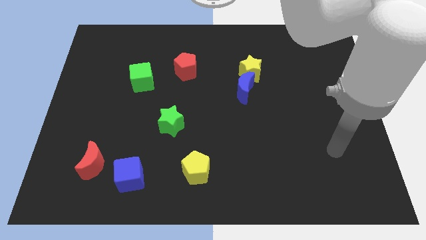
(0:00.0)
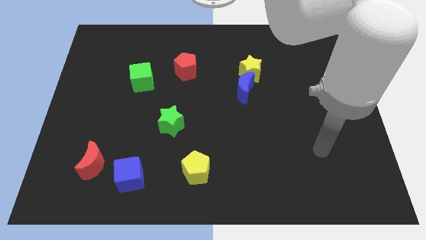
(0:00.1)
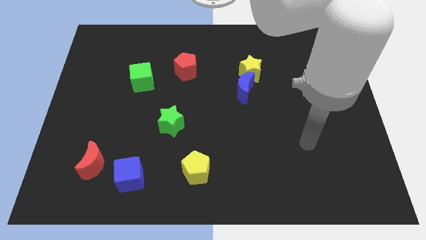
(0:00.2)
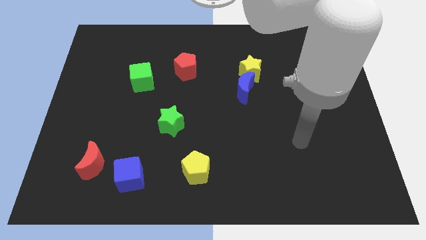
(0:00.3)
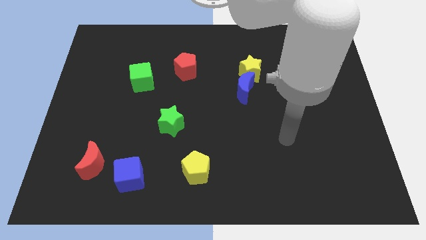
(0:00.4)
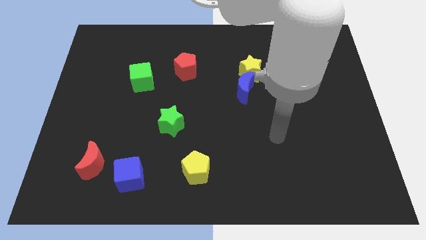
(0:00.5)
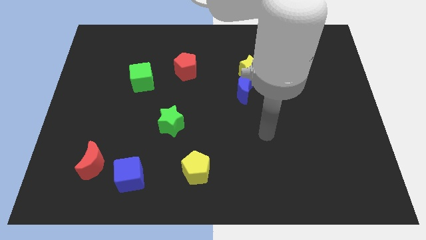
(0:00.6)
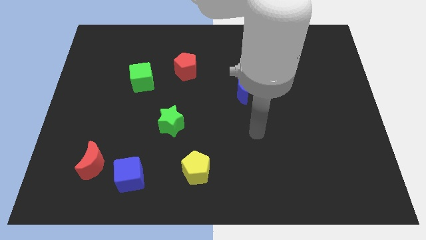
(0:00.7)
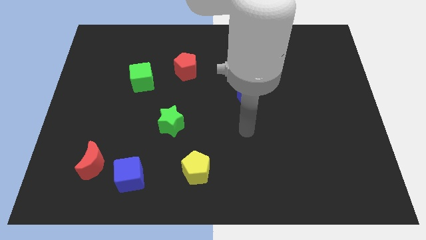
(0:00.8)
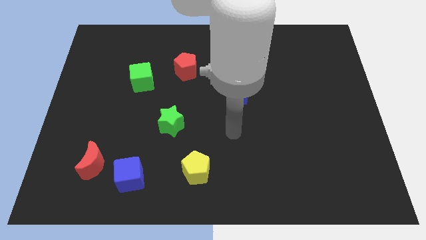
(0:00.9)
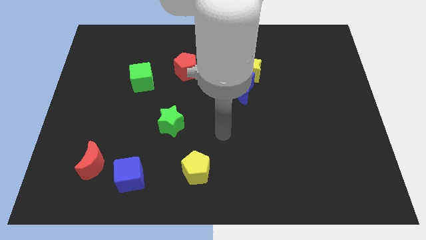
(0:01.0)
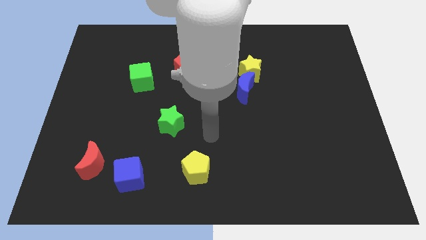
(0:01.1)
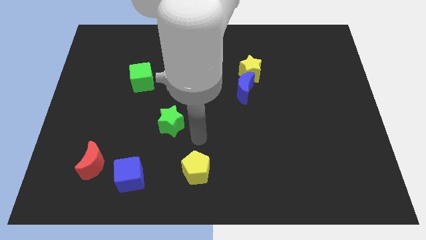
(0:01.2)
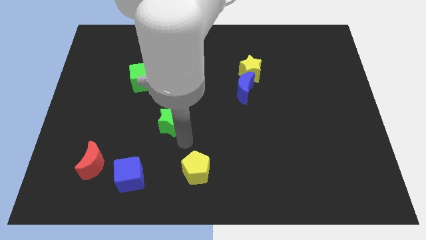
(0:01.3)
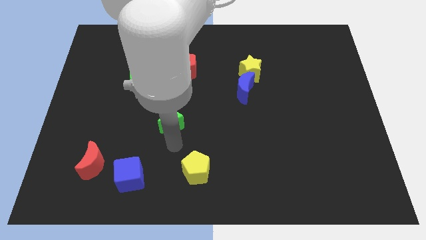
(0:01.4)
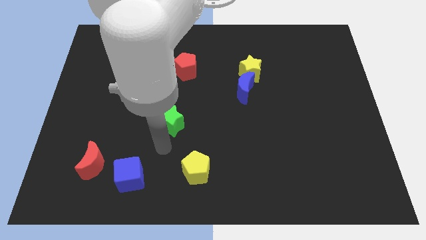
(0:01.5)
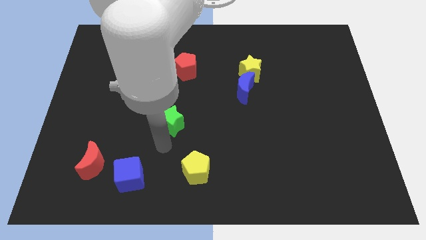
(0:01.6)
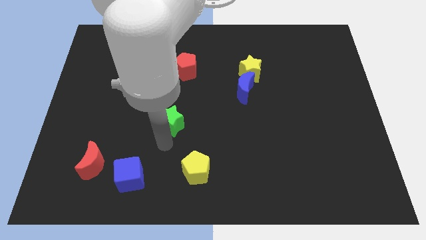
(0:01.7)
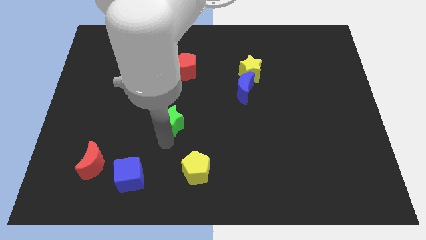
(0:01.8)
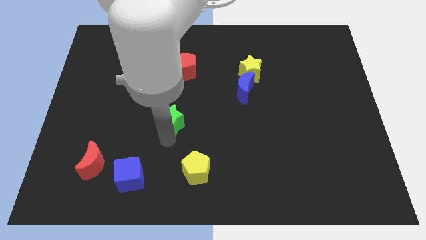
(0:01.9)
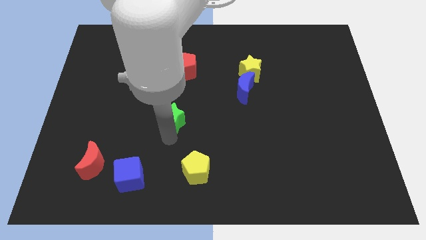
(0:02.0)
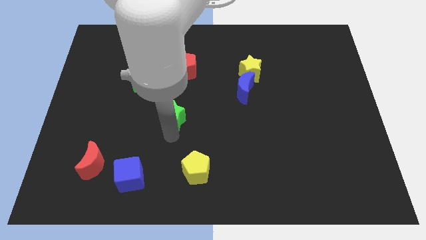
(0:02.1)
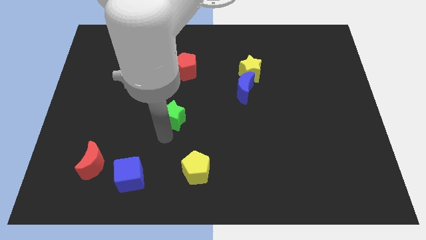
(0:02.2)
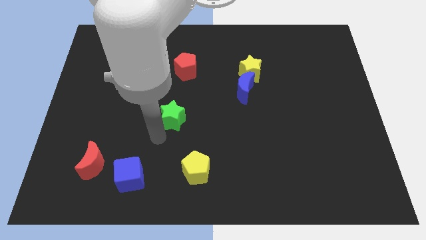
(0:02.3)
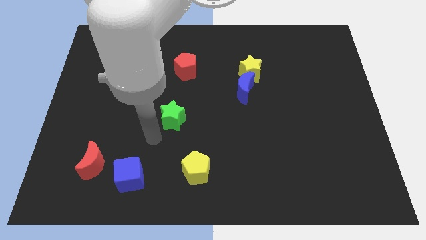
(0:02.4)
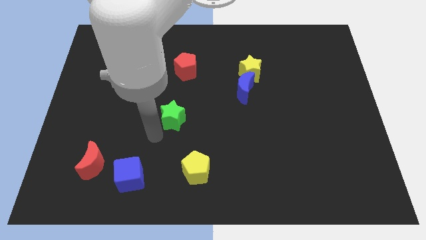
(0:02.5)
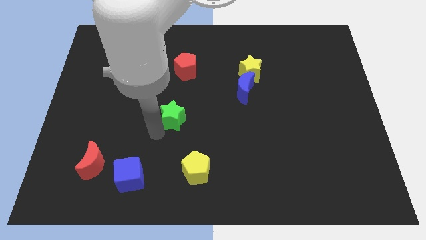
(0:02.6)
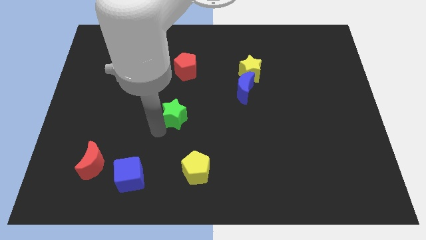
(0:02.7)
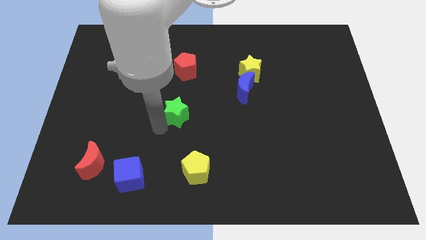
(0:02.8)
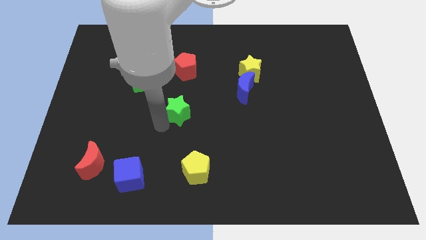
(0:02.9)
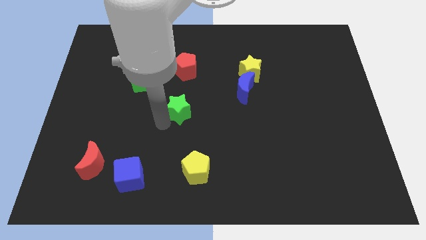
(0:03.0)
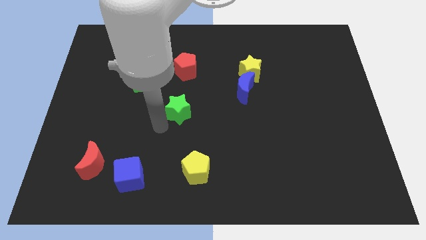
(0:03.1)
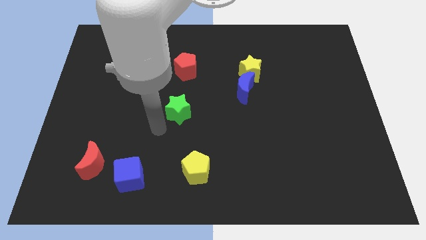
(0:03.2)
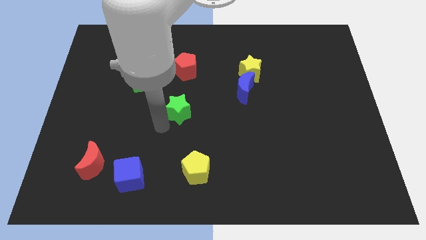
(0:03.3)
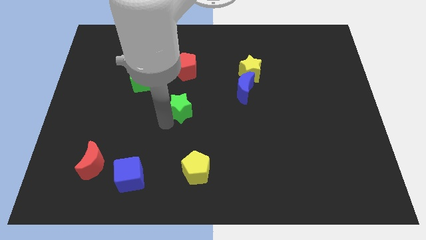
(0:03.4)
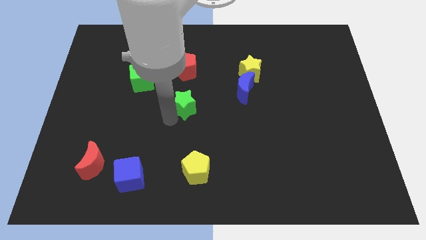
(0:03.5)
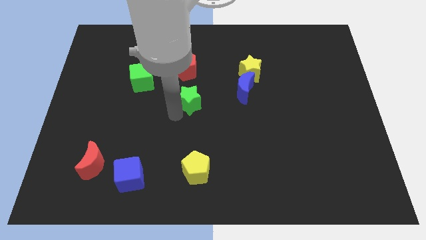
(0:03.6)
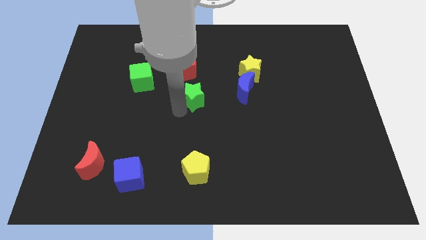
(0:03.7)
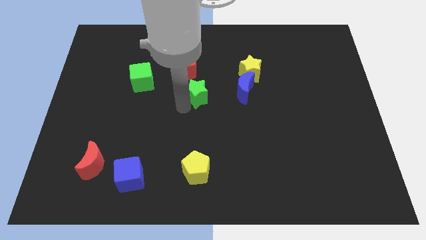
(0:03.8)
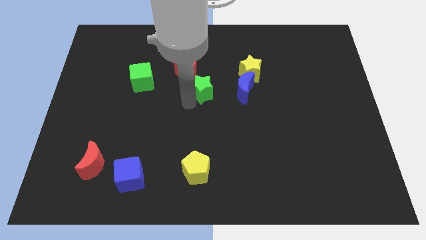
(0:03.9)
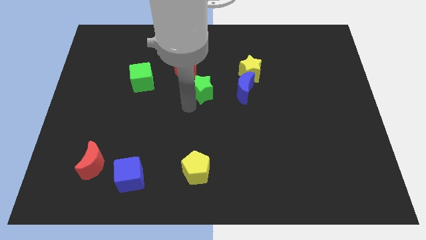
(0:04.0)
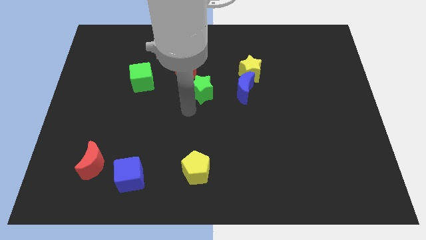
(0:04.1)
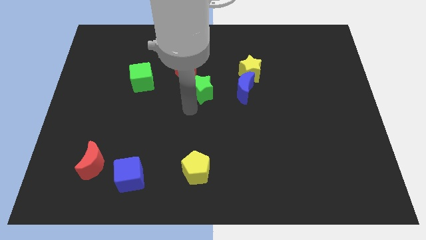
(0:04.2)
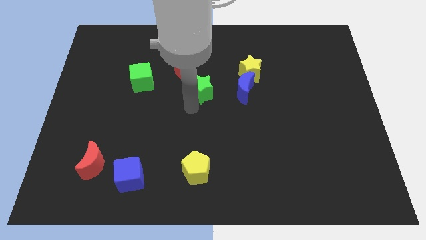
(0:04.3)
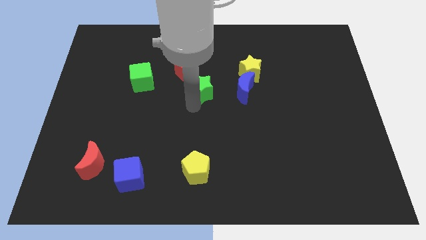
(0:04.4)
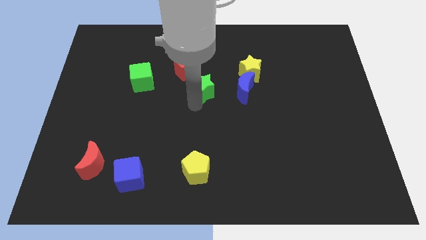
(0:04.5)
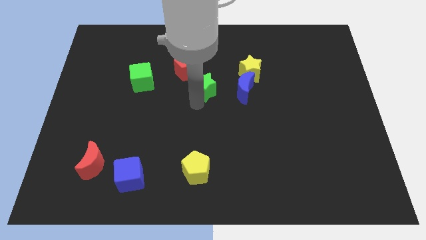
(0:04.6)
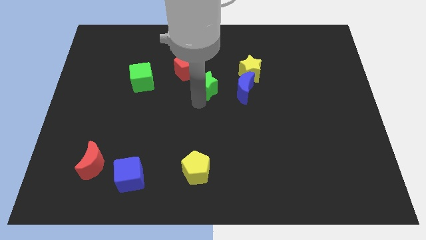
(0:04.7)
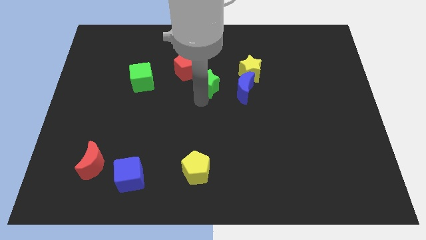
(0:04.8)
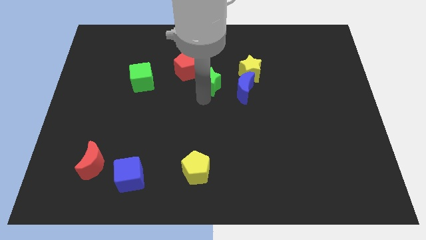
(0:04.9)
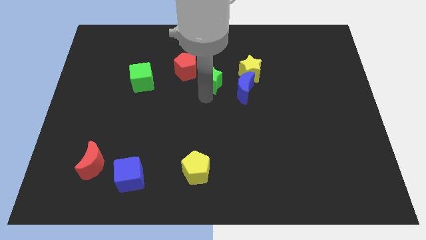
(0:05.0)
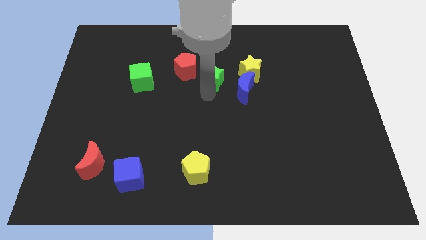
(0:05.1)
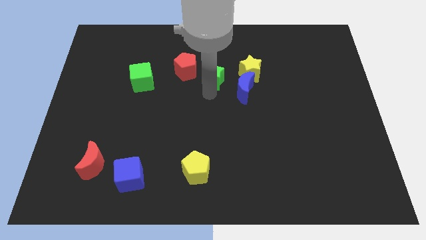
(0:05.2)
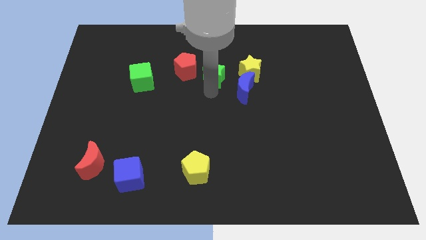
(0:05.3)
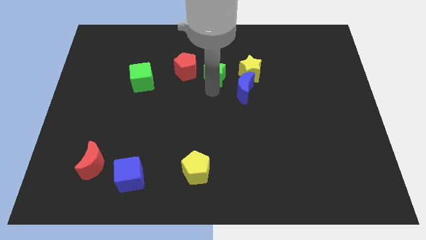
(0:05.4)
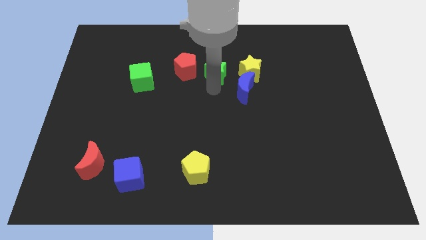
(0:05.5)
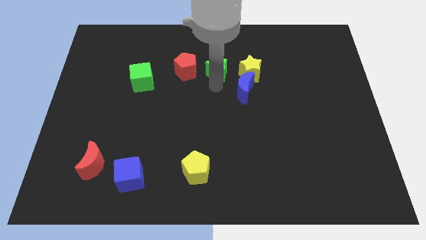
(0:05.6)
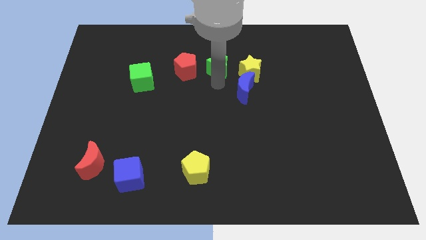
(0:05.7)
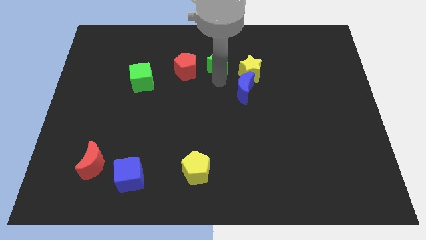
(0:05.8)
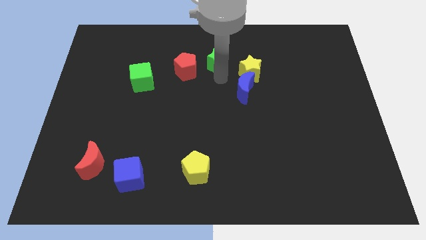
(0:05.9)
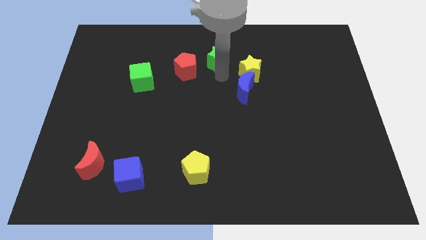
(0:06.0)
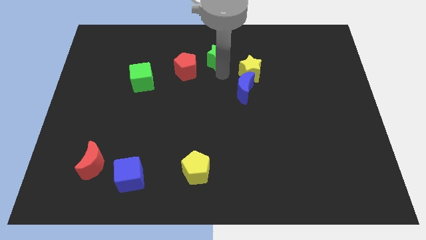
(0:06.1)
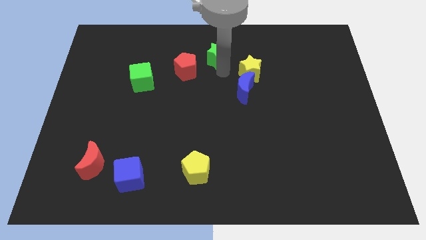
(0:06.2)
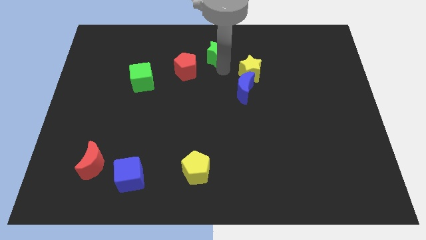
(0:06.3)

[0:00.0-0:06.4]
push the green star to the towards your base

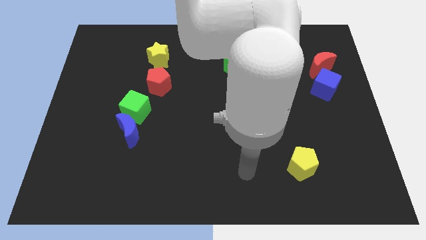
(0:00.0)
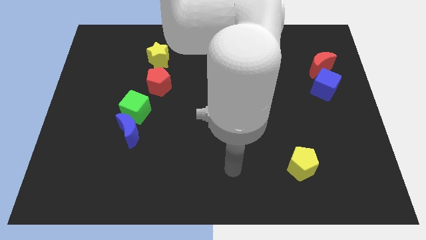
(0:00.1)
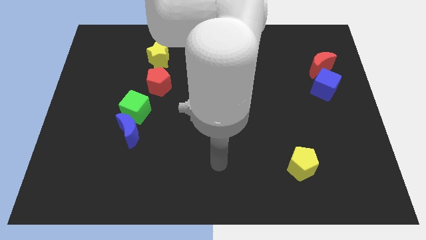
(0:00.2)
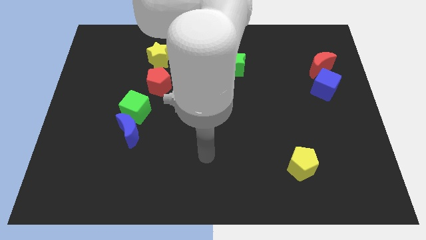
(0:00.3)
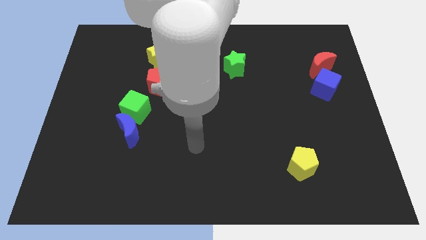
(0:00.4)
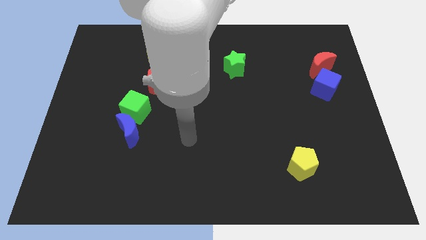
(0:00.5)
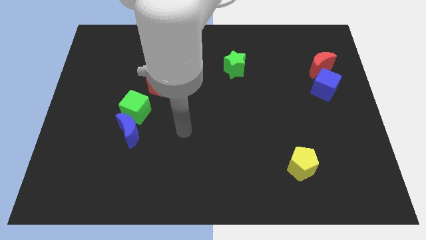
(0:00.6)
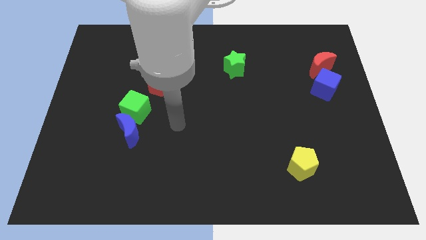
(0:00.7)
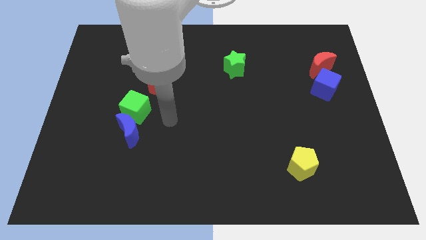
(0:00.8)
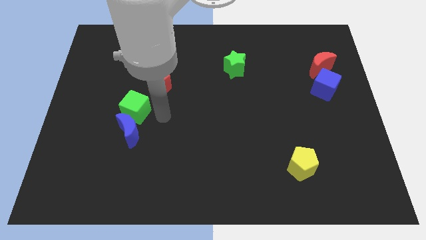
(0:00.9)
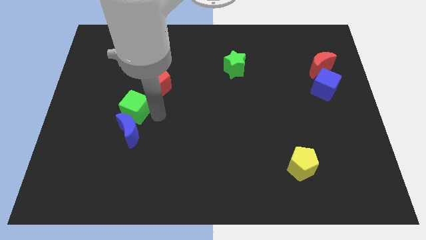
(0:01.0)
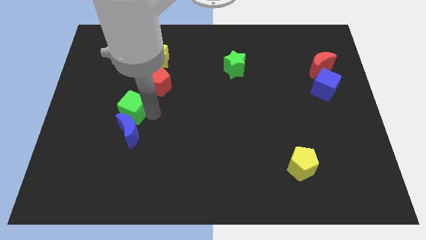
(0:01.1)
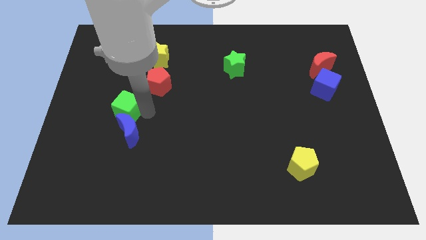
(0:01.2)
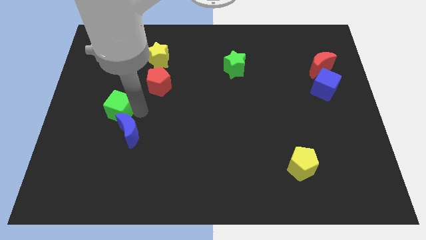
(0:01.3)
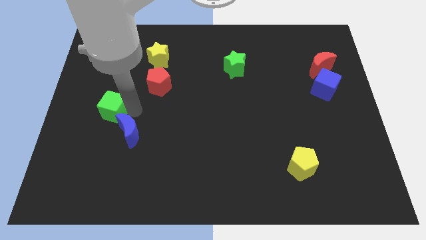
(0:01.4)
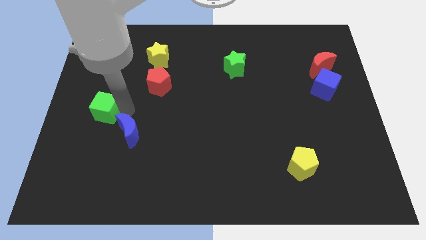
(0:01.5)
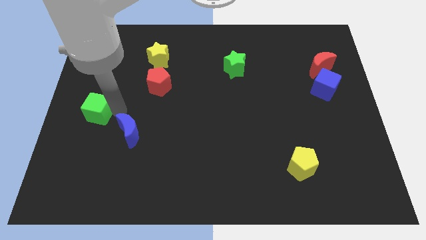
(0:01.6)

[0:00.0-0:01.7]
move the green cube to the center left
